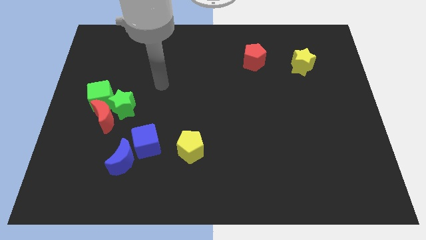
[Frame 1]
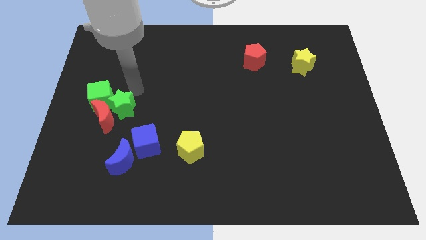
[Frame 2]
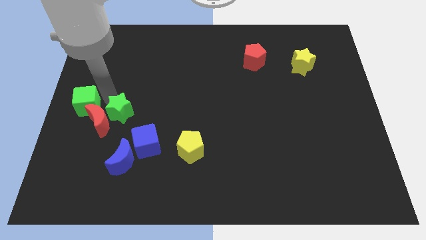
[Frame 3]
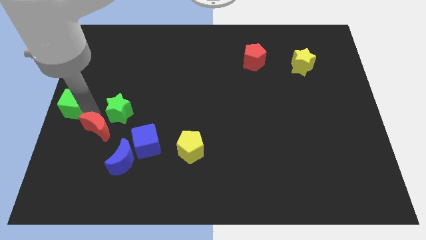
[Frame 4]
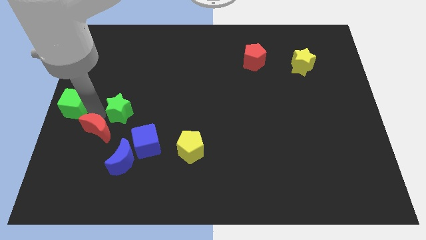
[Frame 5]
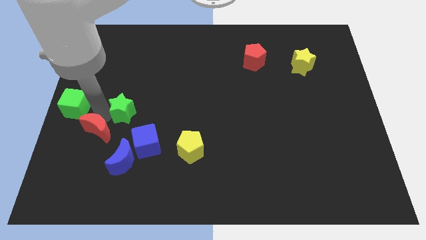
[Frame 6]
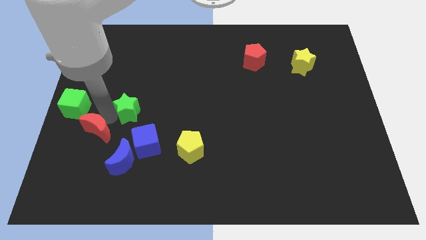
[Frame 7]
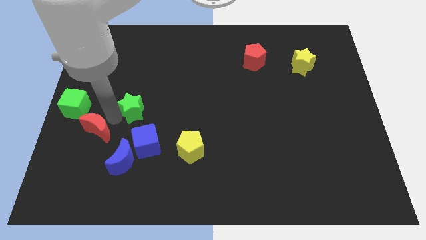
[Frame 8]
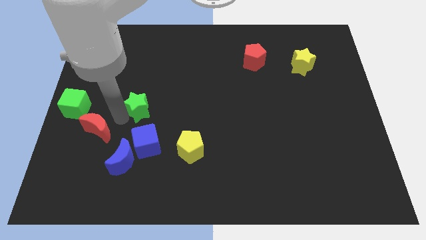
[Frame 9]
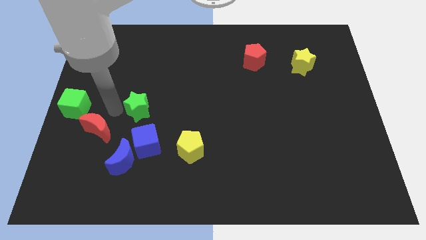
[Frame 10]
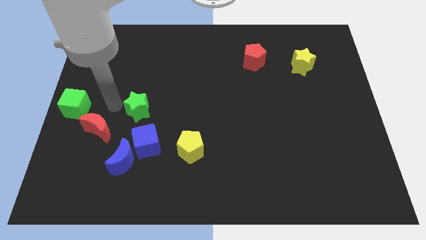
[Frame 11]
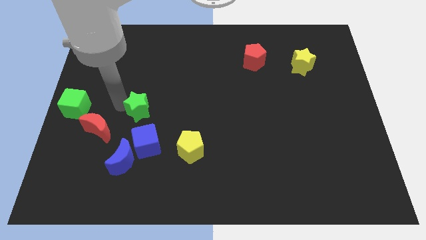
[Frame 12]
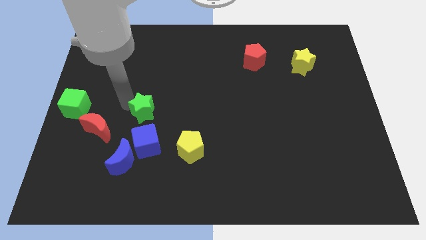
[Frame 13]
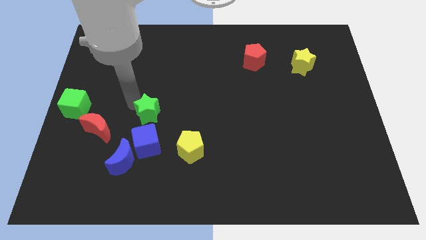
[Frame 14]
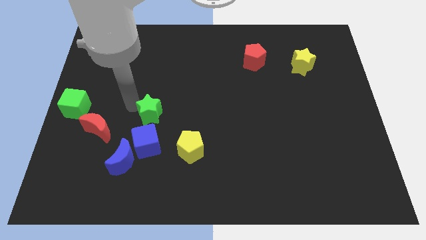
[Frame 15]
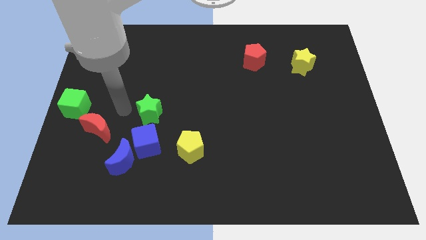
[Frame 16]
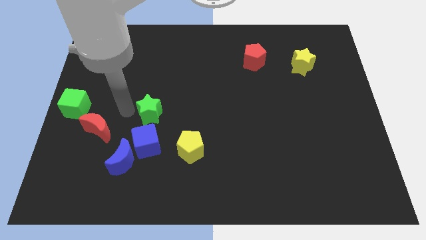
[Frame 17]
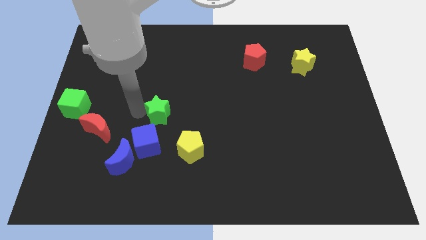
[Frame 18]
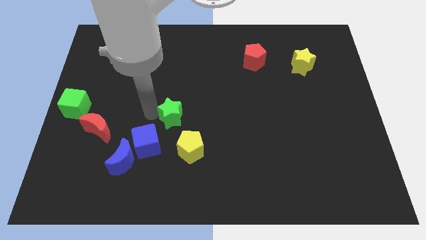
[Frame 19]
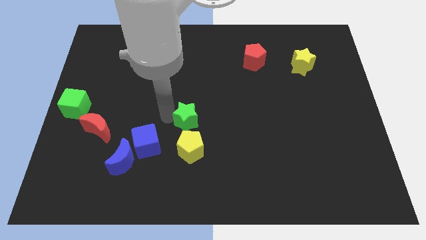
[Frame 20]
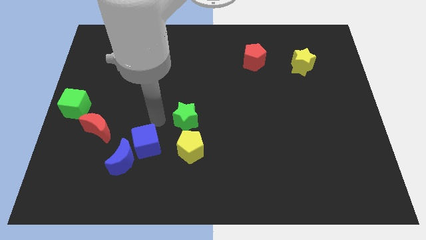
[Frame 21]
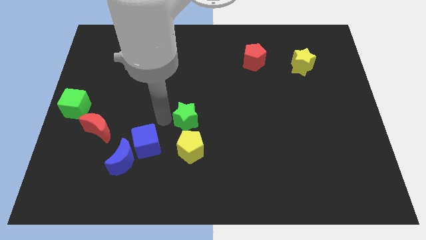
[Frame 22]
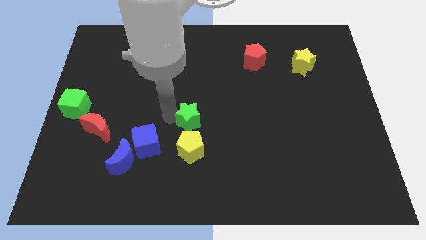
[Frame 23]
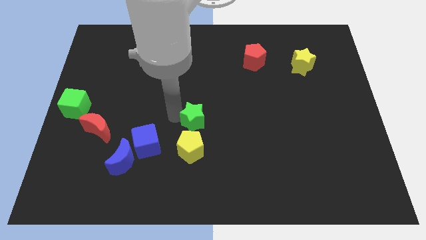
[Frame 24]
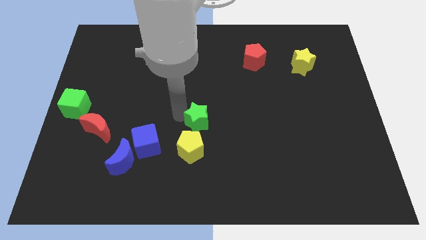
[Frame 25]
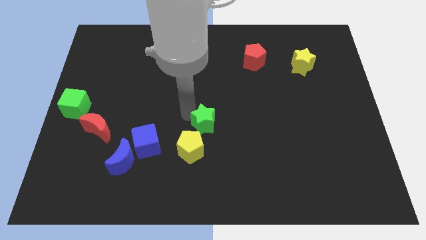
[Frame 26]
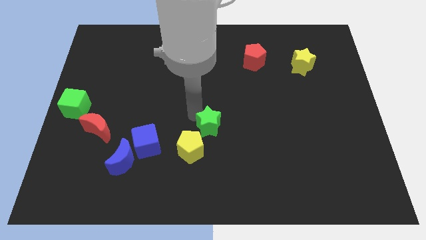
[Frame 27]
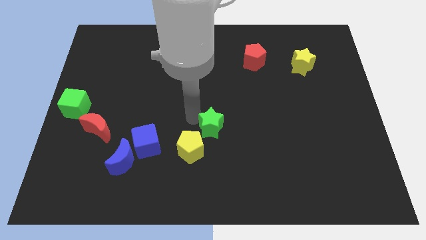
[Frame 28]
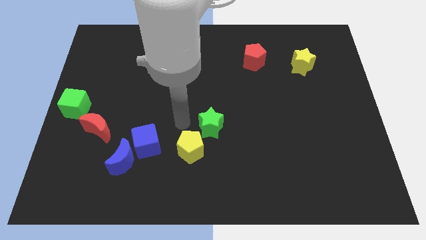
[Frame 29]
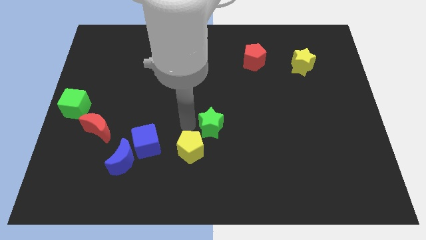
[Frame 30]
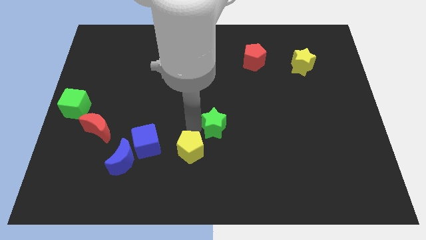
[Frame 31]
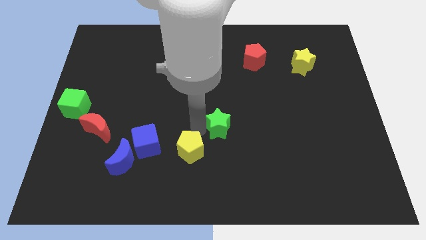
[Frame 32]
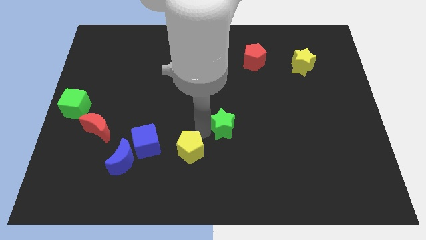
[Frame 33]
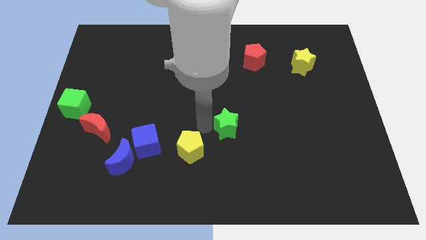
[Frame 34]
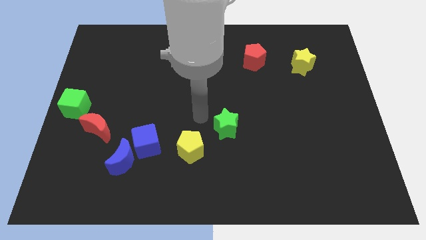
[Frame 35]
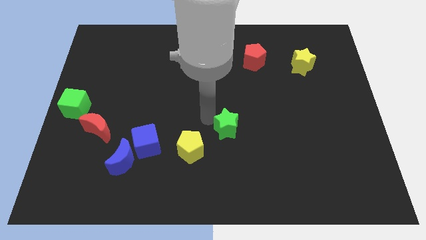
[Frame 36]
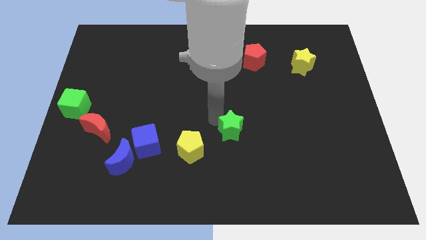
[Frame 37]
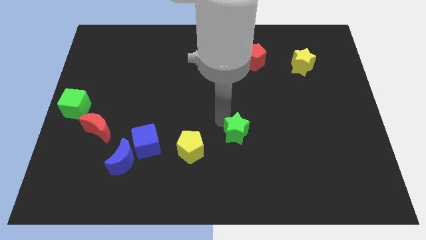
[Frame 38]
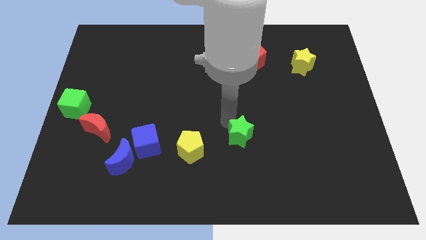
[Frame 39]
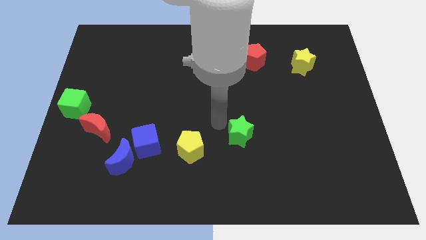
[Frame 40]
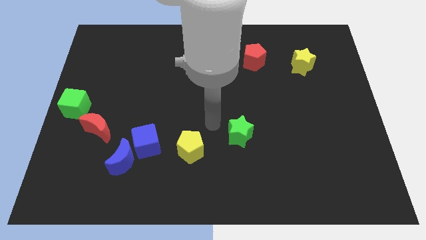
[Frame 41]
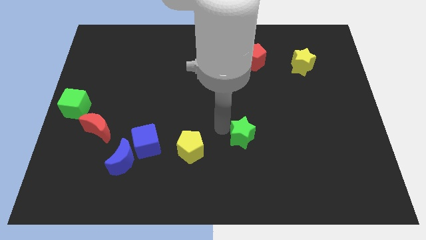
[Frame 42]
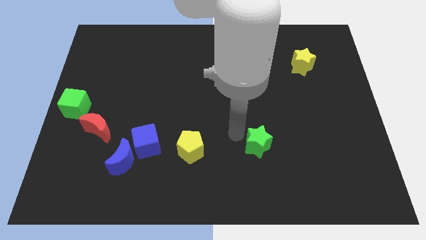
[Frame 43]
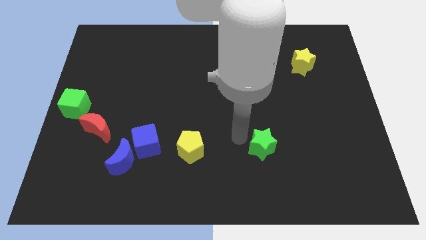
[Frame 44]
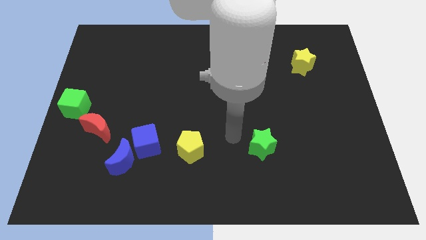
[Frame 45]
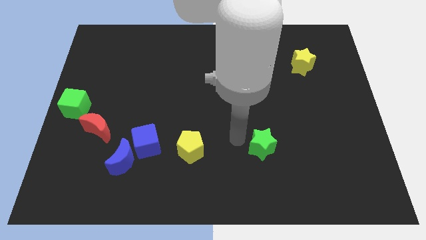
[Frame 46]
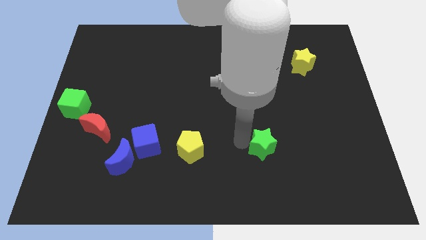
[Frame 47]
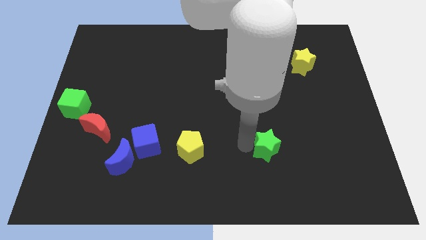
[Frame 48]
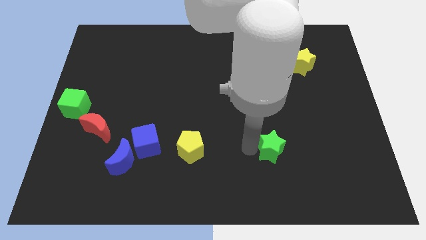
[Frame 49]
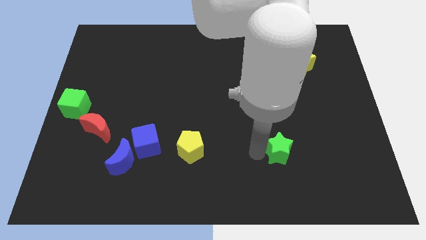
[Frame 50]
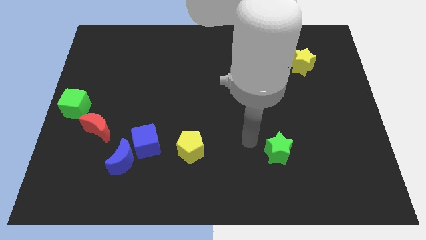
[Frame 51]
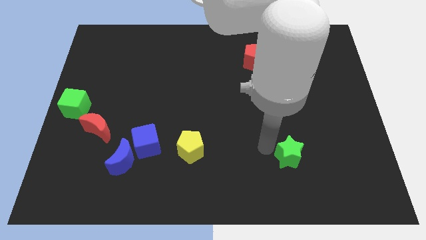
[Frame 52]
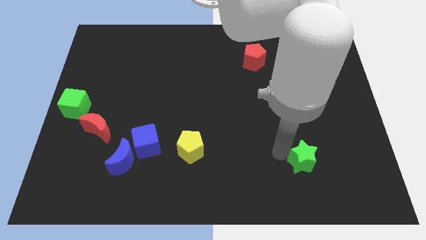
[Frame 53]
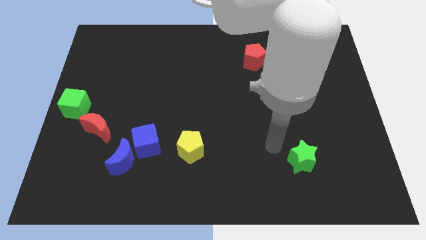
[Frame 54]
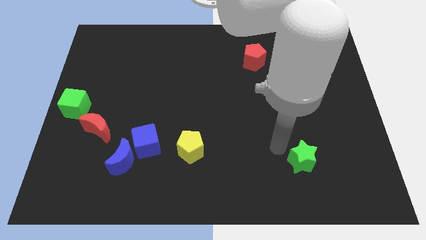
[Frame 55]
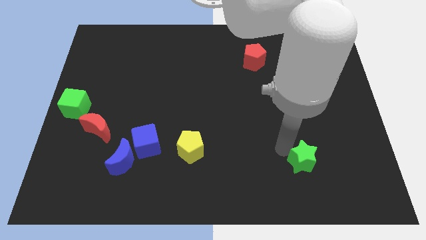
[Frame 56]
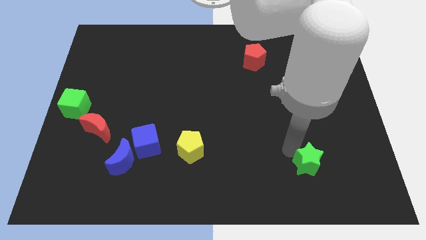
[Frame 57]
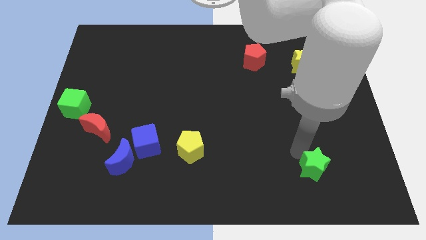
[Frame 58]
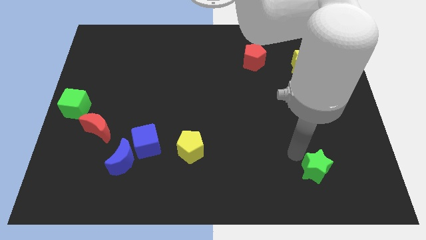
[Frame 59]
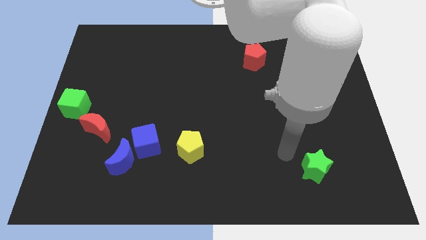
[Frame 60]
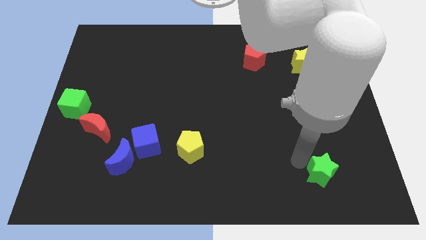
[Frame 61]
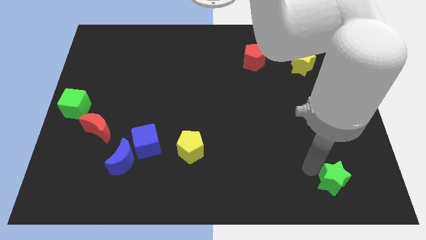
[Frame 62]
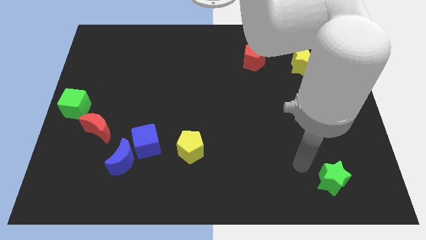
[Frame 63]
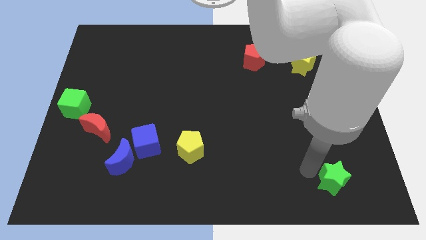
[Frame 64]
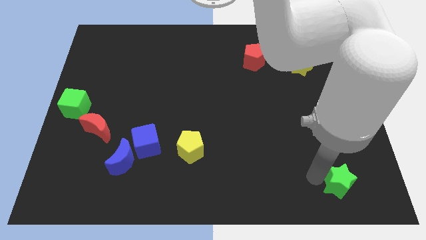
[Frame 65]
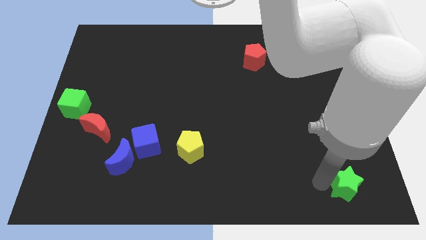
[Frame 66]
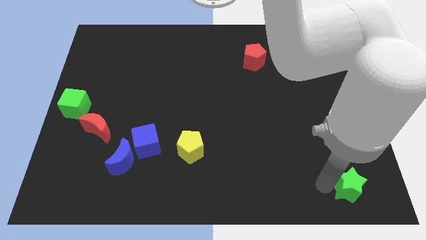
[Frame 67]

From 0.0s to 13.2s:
put the green star to the lower right corner

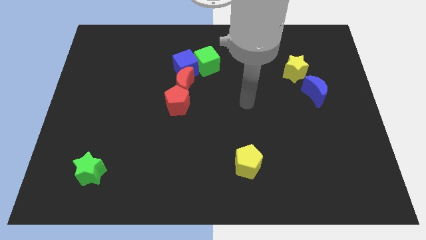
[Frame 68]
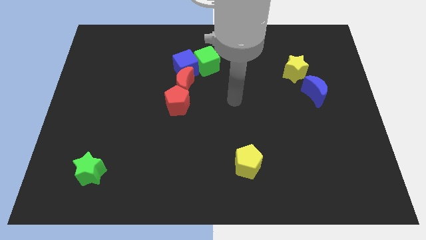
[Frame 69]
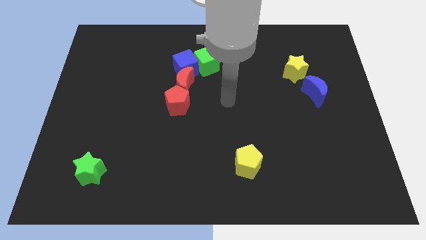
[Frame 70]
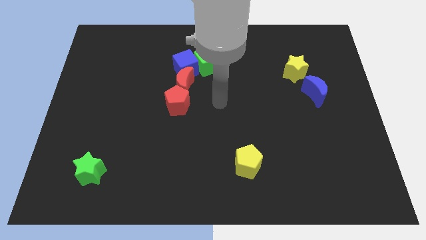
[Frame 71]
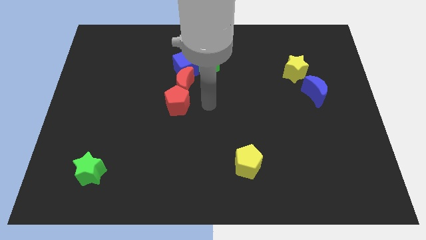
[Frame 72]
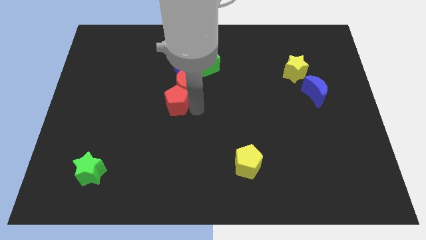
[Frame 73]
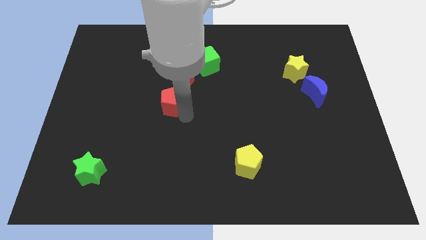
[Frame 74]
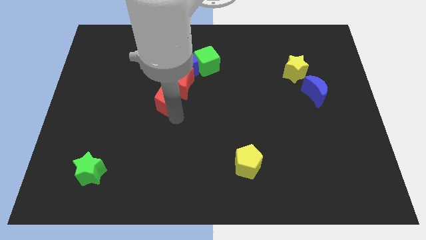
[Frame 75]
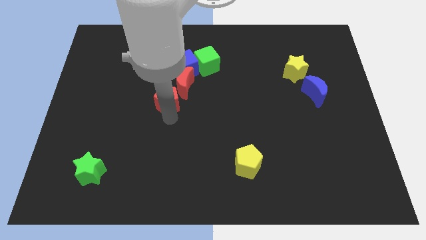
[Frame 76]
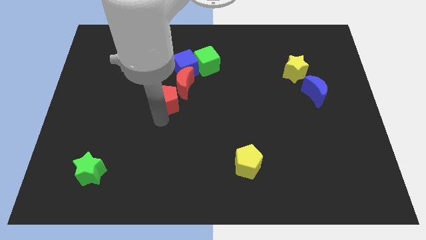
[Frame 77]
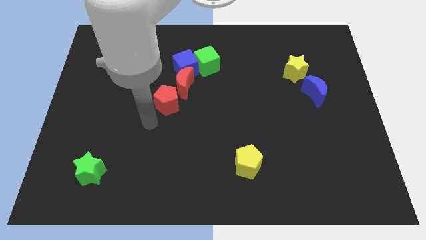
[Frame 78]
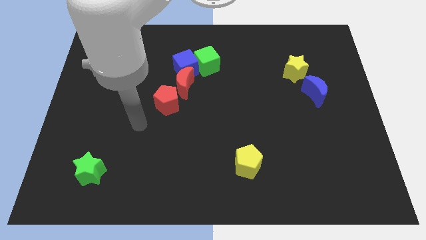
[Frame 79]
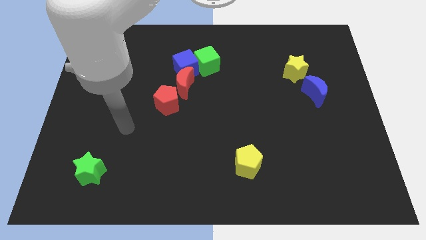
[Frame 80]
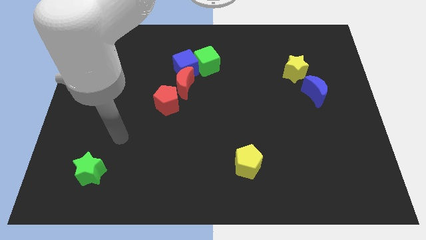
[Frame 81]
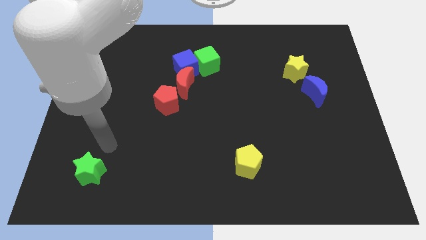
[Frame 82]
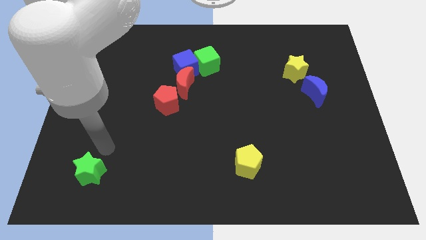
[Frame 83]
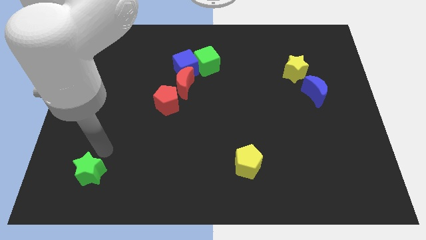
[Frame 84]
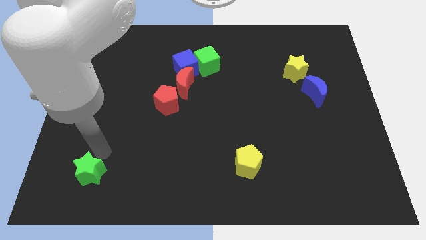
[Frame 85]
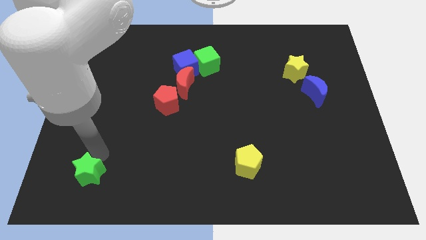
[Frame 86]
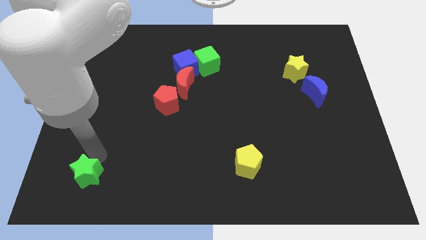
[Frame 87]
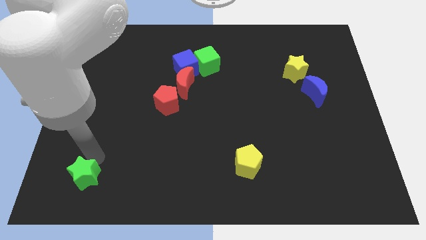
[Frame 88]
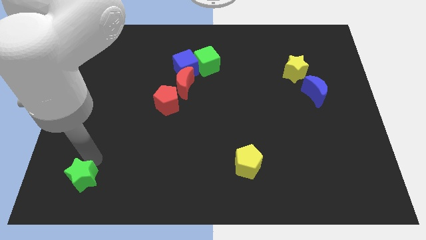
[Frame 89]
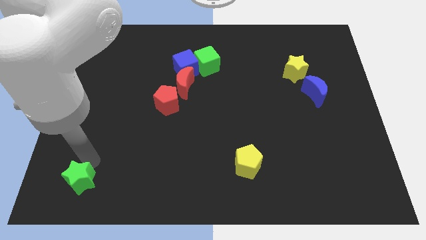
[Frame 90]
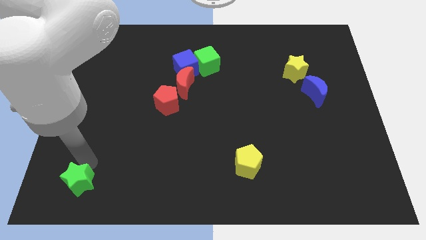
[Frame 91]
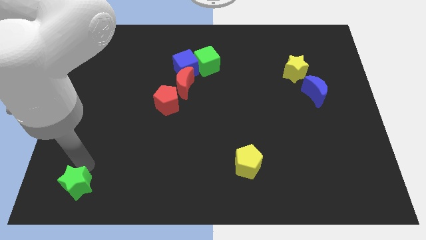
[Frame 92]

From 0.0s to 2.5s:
slide the green star to the bottom left of the board
